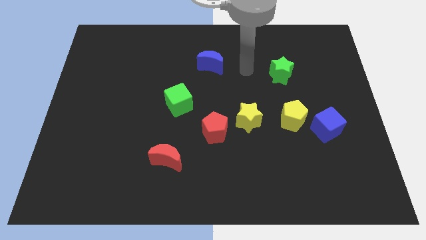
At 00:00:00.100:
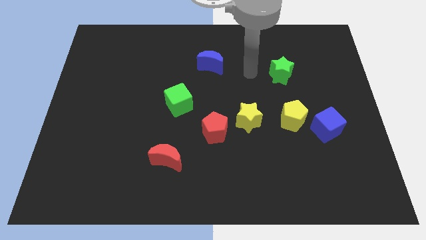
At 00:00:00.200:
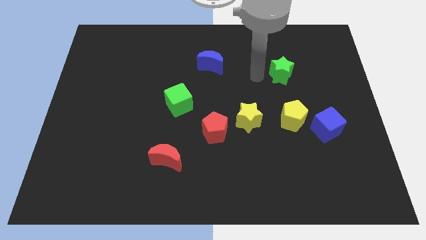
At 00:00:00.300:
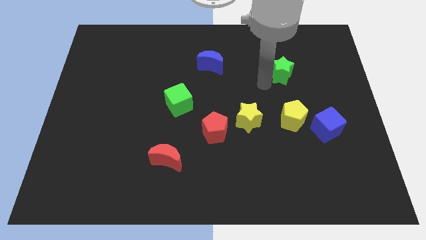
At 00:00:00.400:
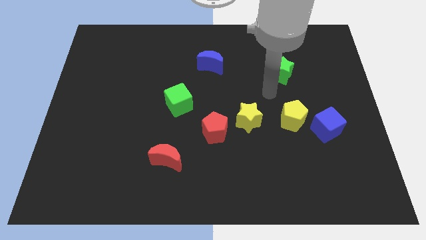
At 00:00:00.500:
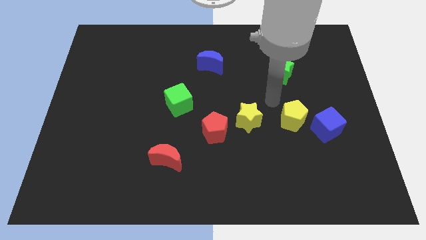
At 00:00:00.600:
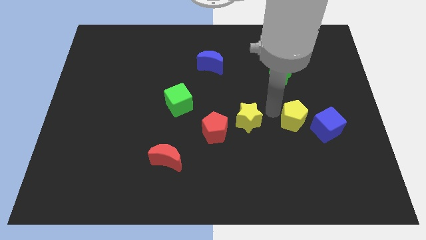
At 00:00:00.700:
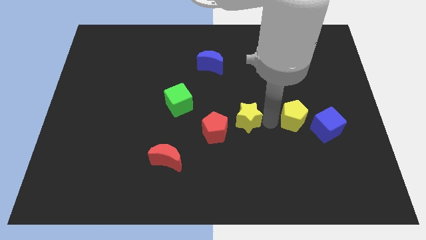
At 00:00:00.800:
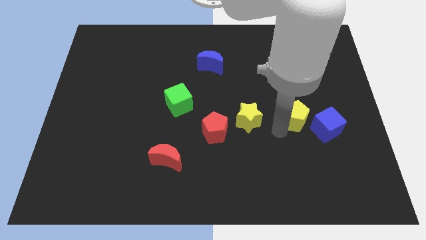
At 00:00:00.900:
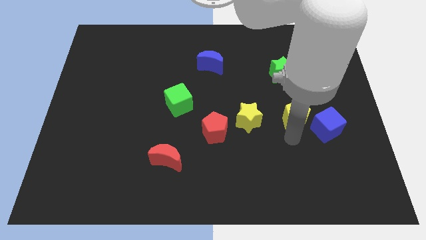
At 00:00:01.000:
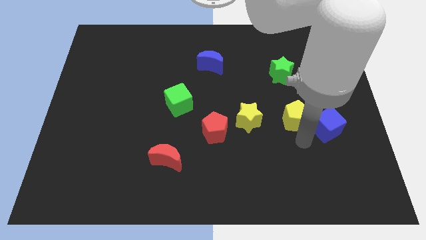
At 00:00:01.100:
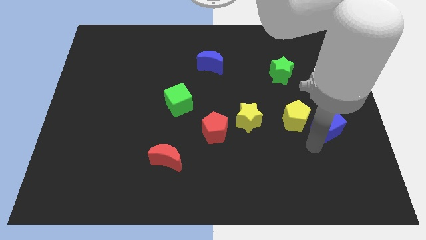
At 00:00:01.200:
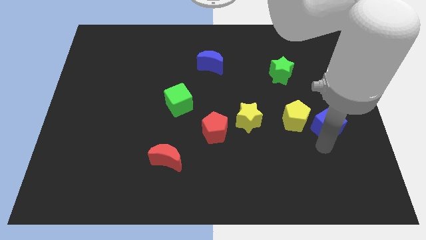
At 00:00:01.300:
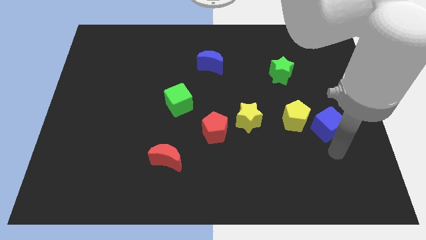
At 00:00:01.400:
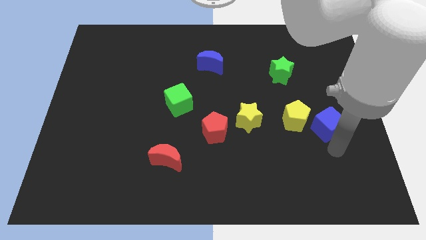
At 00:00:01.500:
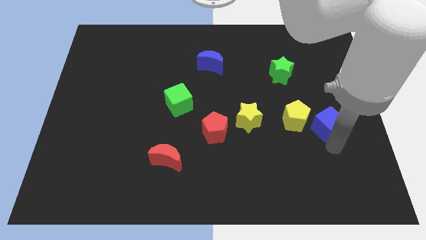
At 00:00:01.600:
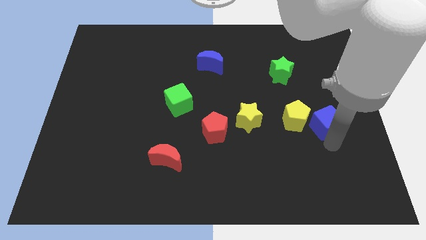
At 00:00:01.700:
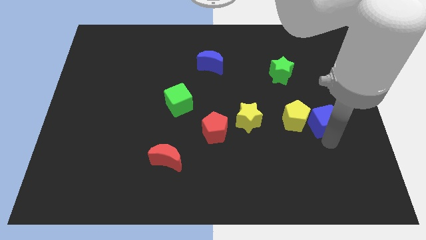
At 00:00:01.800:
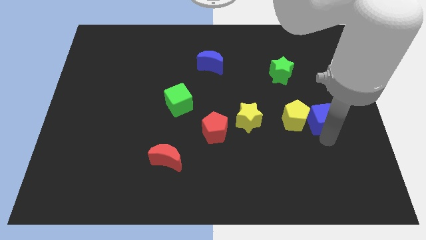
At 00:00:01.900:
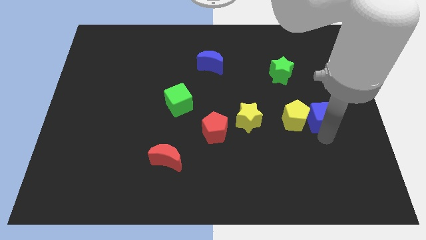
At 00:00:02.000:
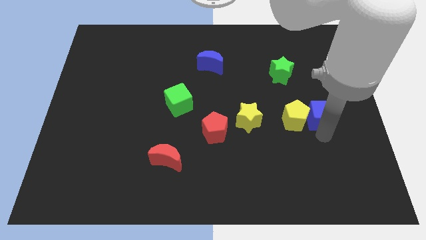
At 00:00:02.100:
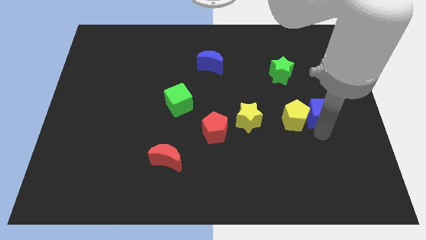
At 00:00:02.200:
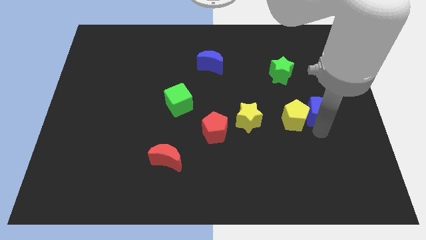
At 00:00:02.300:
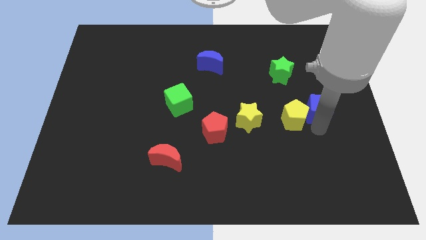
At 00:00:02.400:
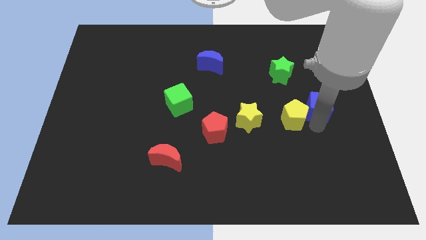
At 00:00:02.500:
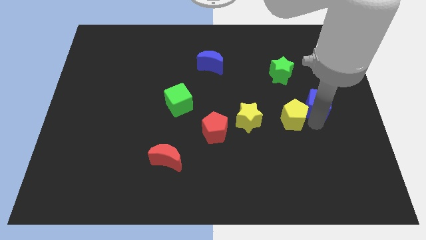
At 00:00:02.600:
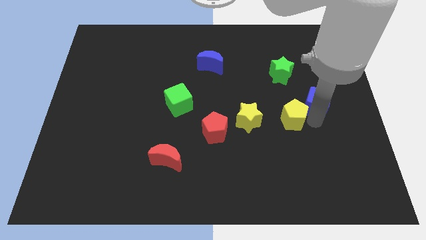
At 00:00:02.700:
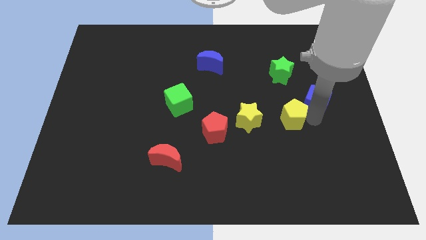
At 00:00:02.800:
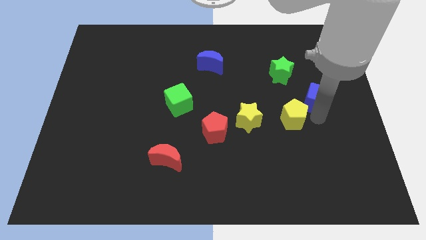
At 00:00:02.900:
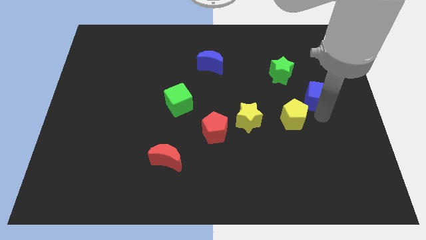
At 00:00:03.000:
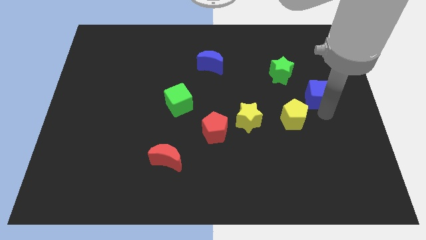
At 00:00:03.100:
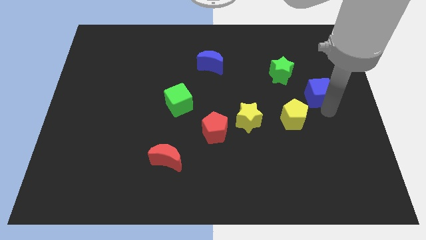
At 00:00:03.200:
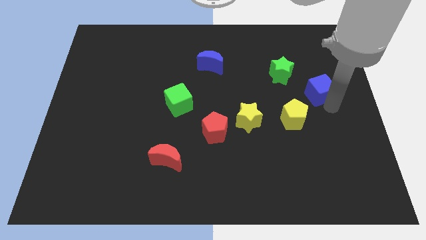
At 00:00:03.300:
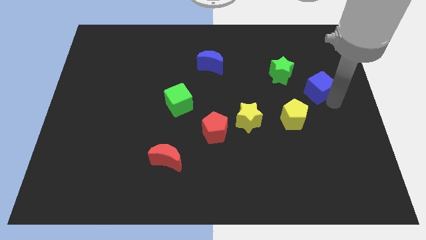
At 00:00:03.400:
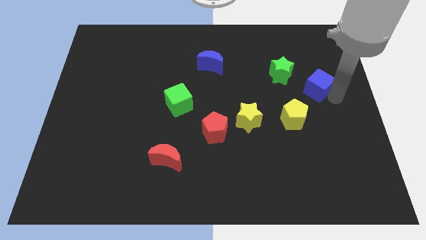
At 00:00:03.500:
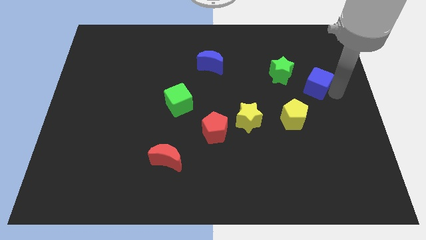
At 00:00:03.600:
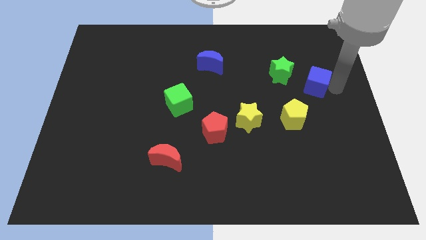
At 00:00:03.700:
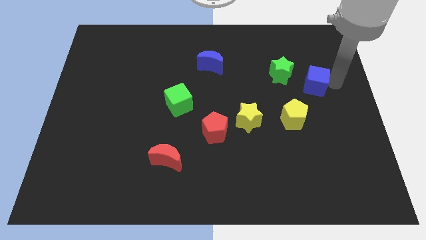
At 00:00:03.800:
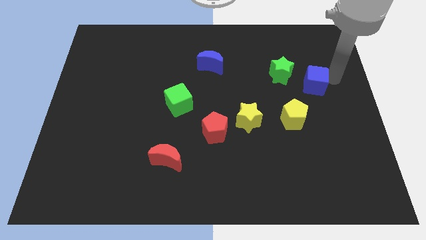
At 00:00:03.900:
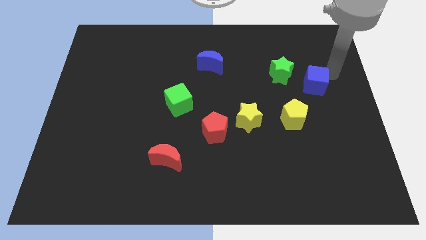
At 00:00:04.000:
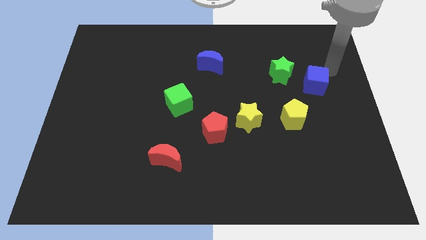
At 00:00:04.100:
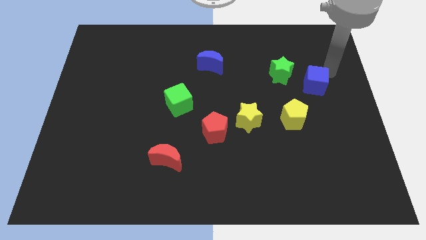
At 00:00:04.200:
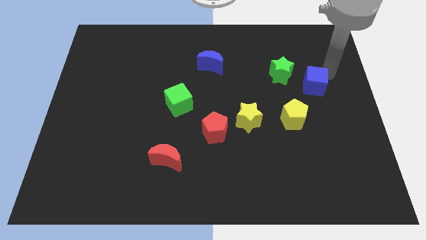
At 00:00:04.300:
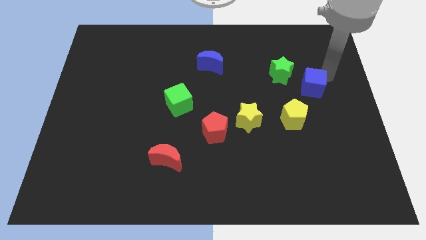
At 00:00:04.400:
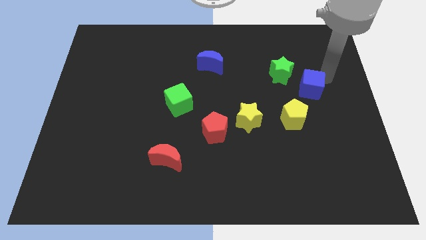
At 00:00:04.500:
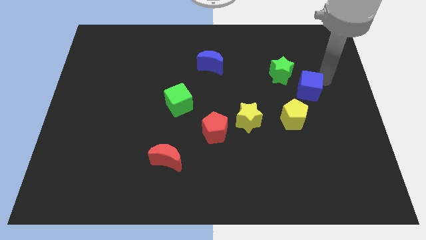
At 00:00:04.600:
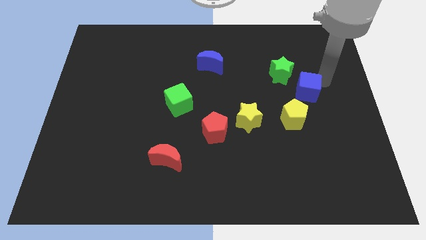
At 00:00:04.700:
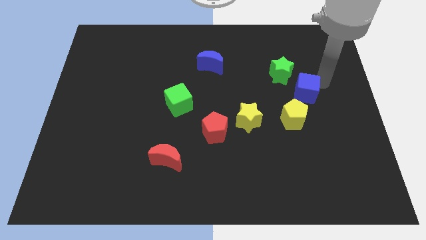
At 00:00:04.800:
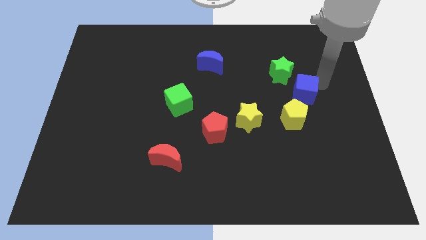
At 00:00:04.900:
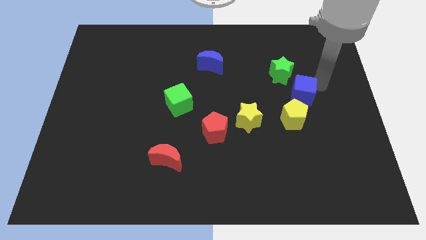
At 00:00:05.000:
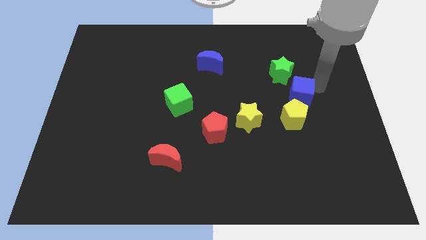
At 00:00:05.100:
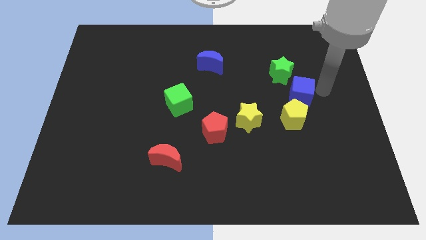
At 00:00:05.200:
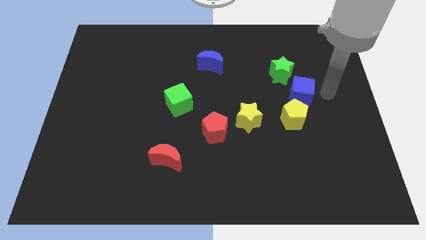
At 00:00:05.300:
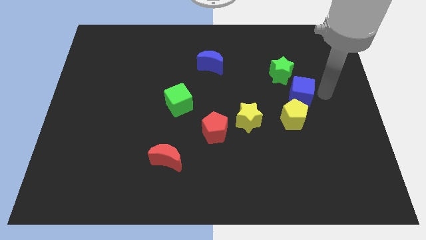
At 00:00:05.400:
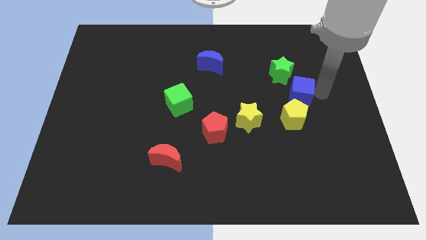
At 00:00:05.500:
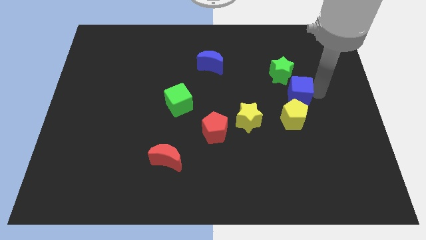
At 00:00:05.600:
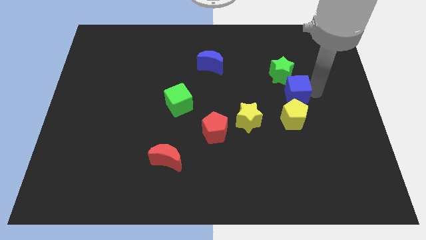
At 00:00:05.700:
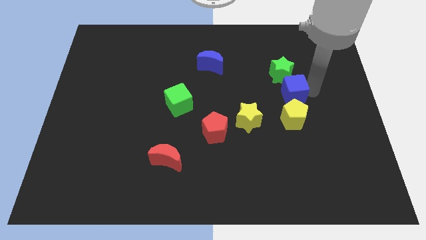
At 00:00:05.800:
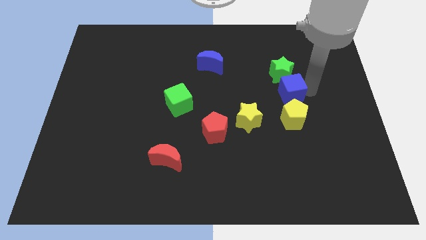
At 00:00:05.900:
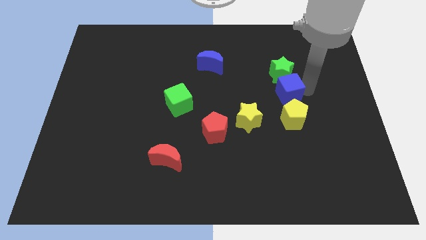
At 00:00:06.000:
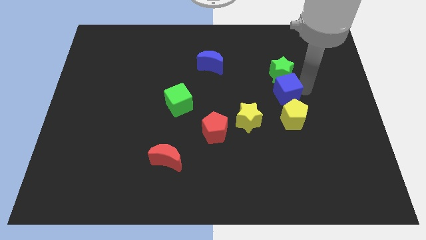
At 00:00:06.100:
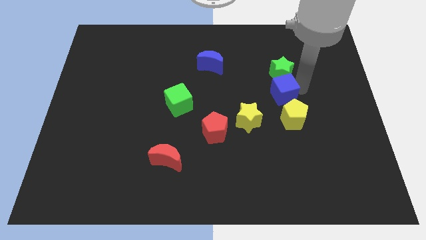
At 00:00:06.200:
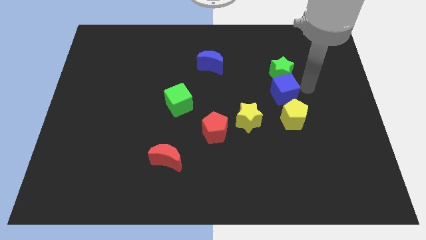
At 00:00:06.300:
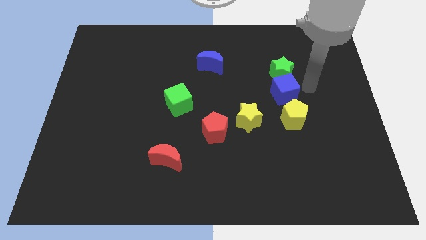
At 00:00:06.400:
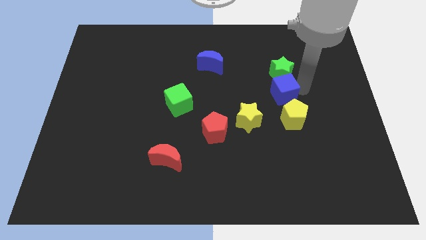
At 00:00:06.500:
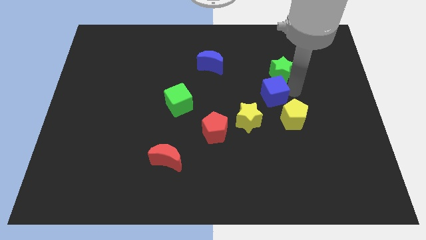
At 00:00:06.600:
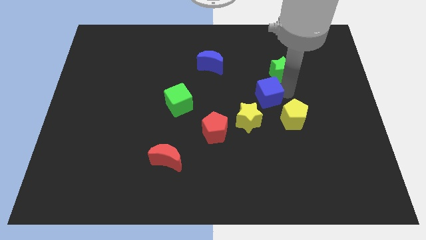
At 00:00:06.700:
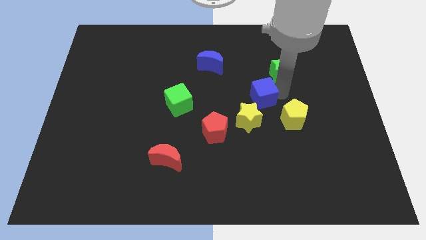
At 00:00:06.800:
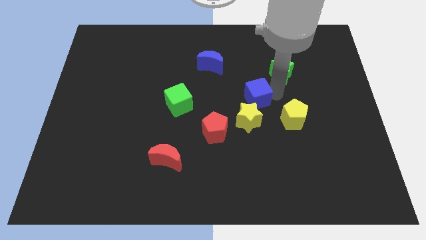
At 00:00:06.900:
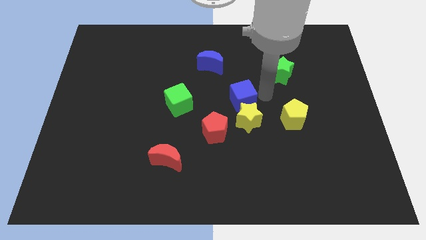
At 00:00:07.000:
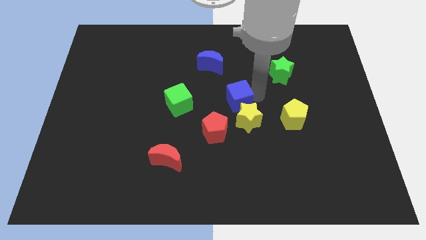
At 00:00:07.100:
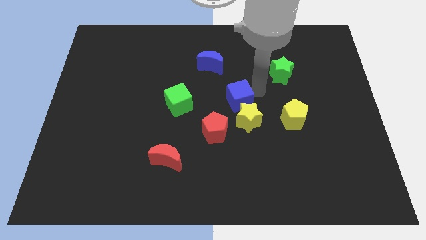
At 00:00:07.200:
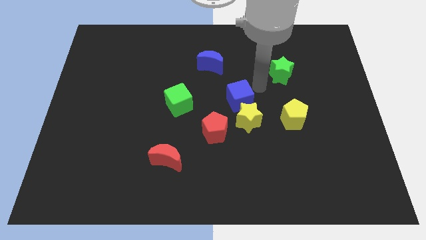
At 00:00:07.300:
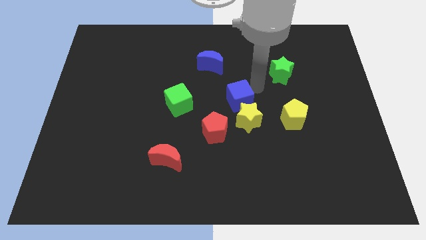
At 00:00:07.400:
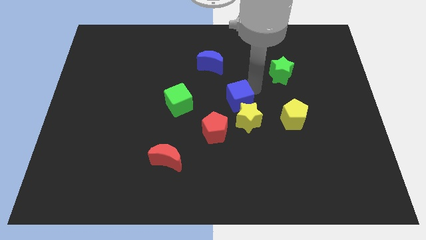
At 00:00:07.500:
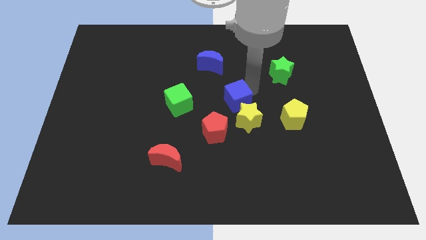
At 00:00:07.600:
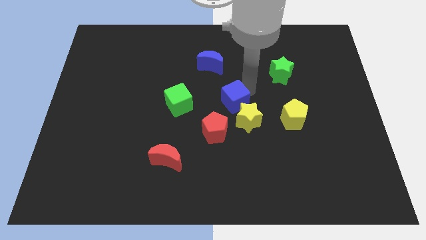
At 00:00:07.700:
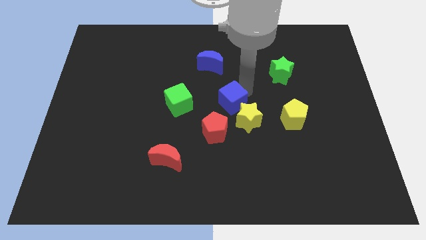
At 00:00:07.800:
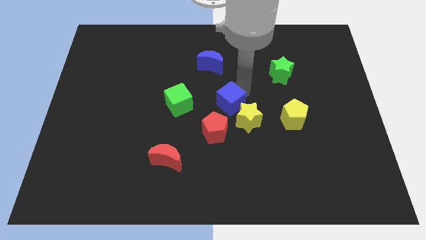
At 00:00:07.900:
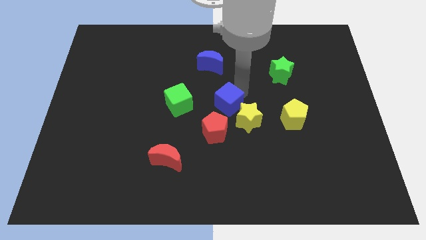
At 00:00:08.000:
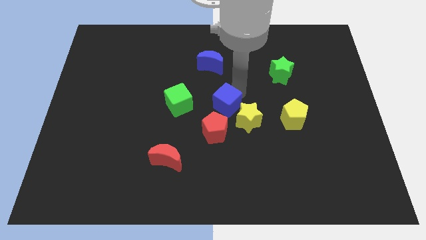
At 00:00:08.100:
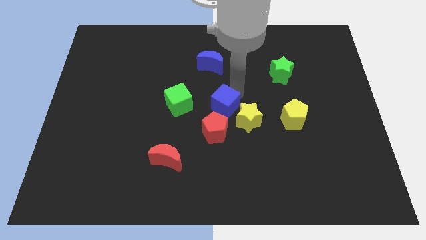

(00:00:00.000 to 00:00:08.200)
move the blue cube to the left side of the yellow star
